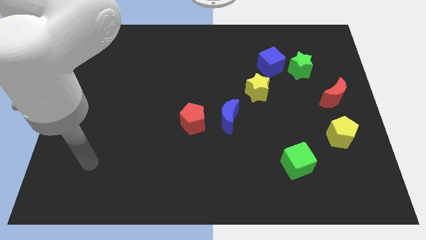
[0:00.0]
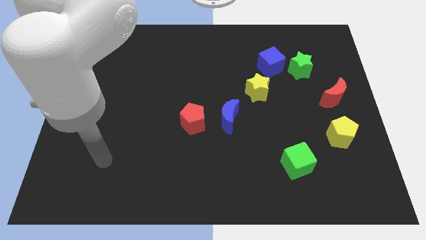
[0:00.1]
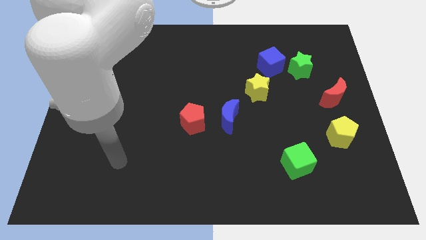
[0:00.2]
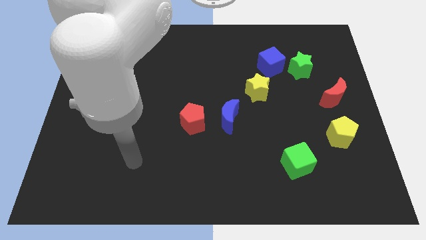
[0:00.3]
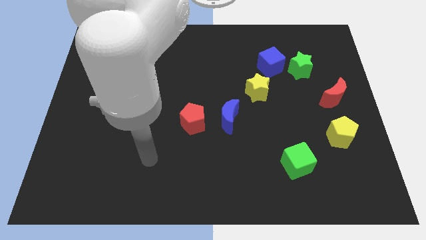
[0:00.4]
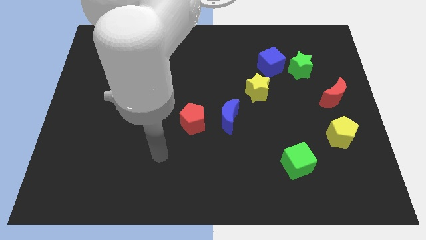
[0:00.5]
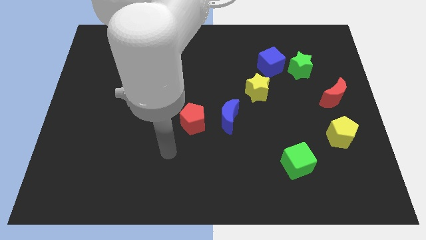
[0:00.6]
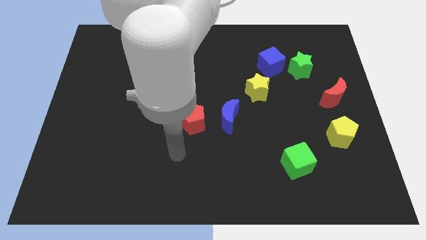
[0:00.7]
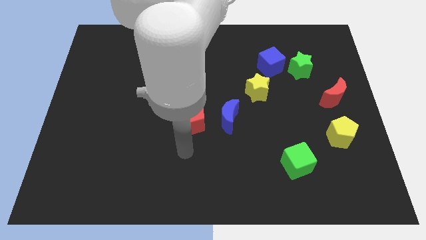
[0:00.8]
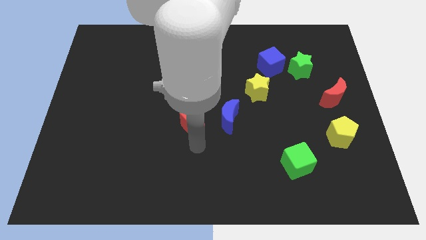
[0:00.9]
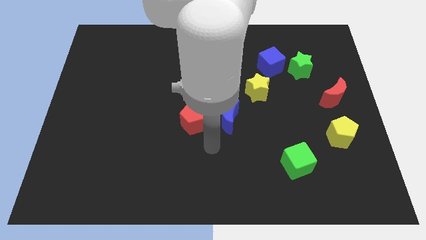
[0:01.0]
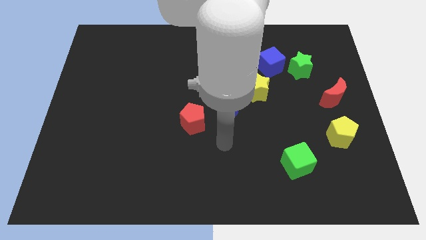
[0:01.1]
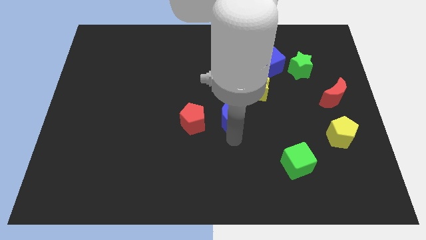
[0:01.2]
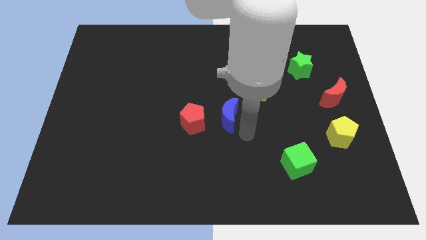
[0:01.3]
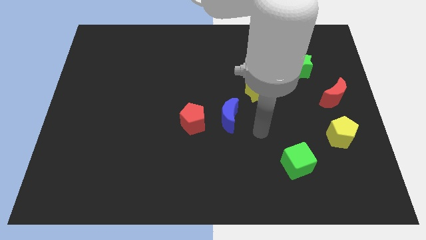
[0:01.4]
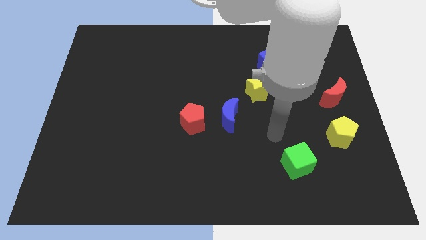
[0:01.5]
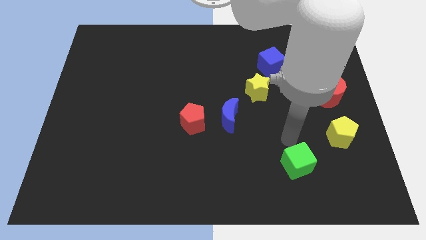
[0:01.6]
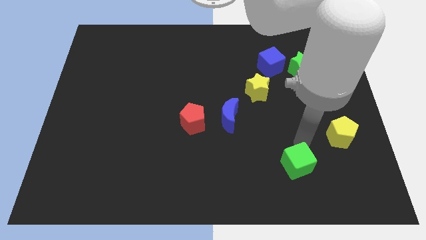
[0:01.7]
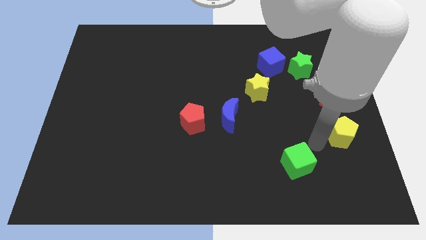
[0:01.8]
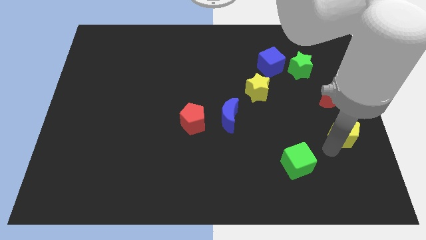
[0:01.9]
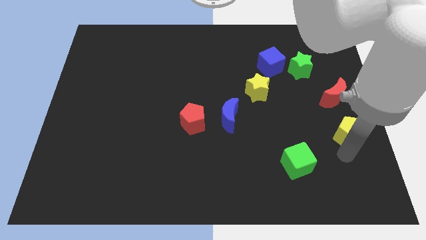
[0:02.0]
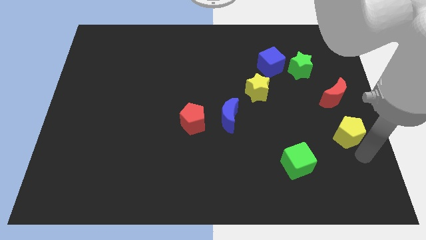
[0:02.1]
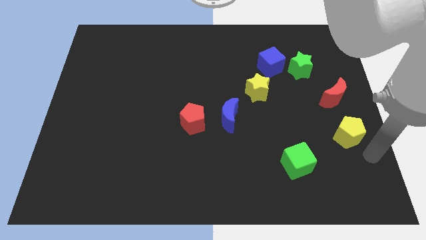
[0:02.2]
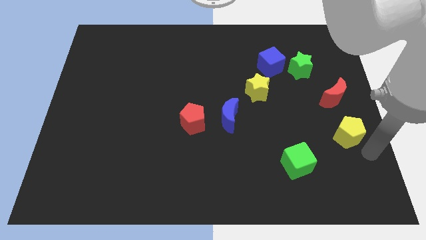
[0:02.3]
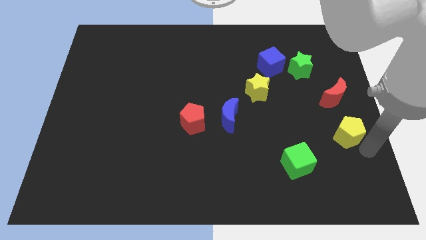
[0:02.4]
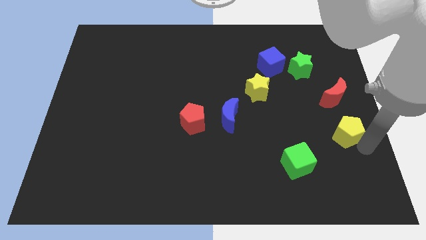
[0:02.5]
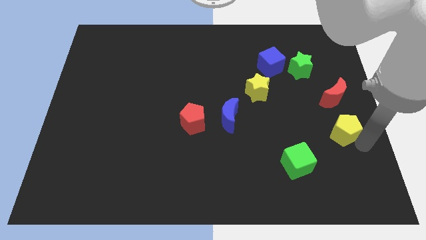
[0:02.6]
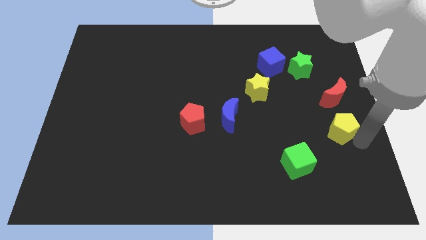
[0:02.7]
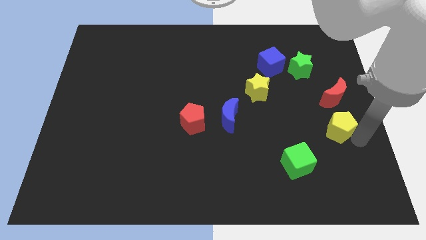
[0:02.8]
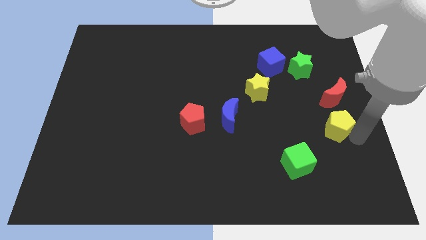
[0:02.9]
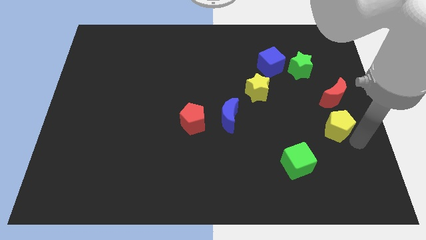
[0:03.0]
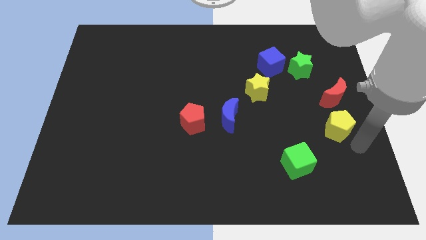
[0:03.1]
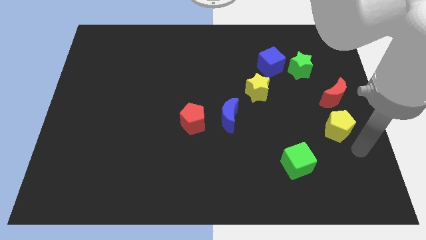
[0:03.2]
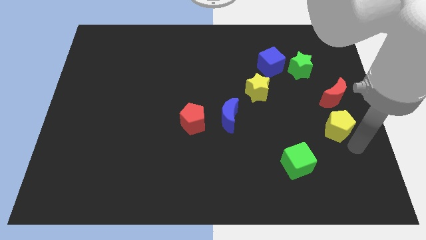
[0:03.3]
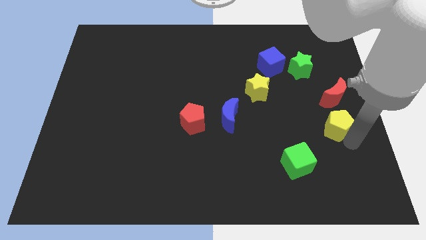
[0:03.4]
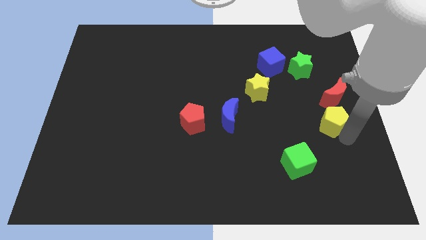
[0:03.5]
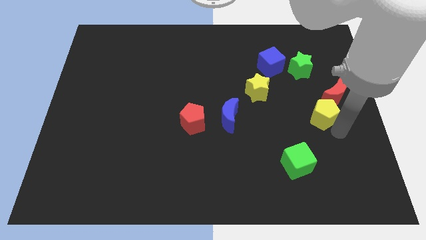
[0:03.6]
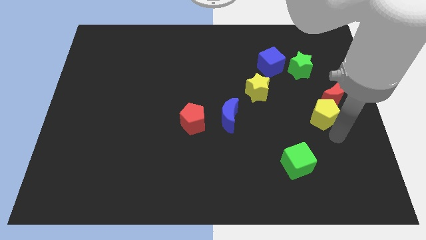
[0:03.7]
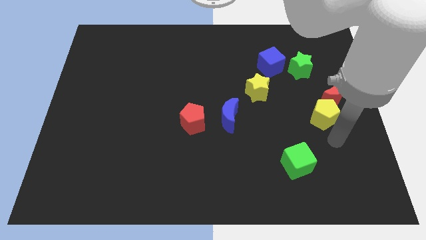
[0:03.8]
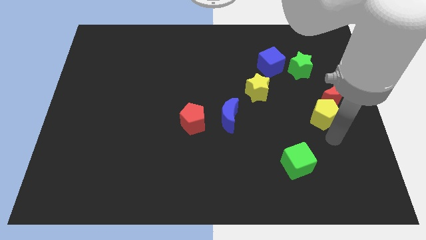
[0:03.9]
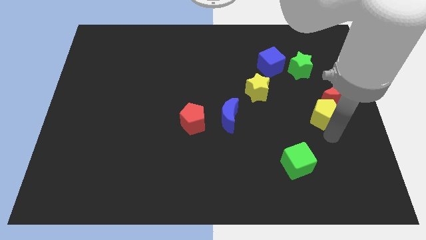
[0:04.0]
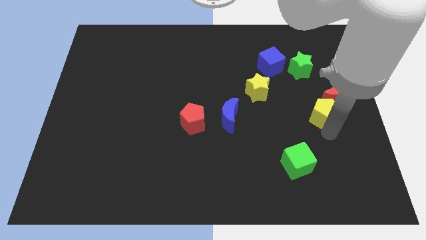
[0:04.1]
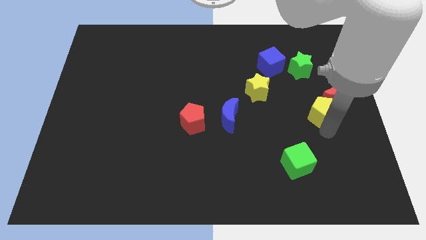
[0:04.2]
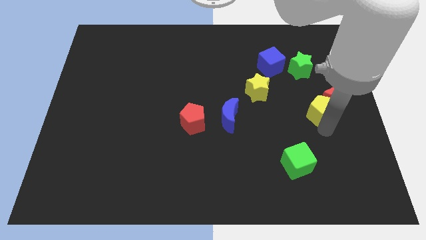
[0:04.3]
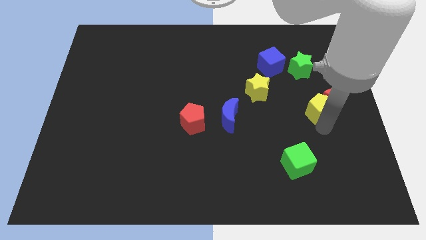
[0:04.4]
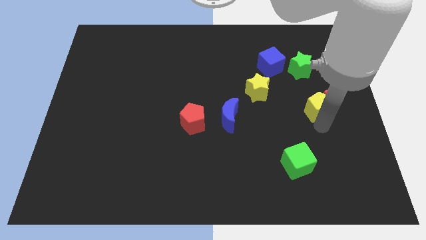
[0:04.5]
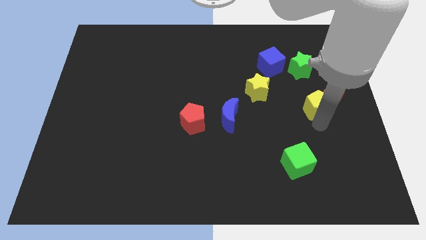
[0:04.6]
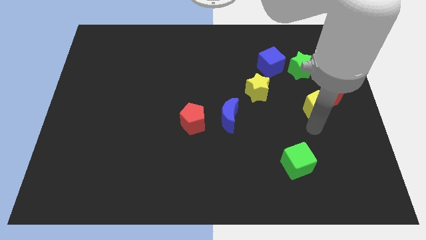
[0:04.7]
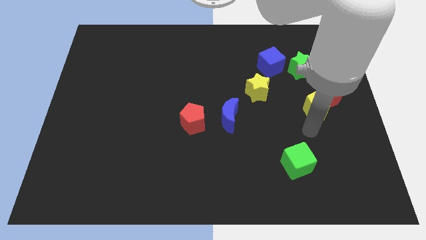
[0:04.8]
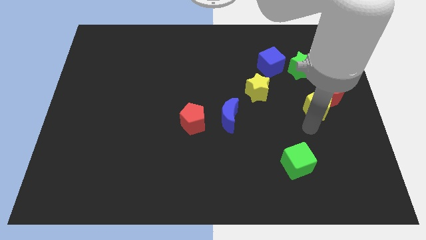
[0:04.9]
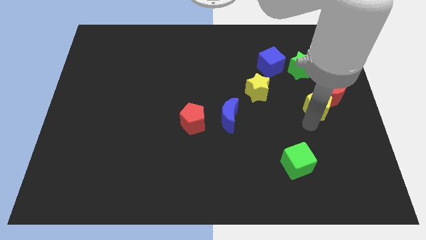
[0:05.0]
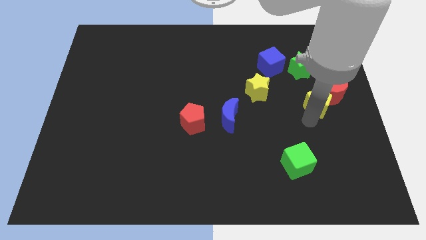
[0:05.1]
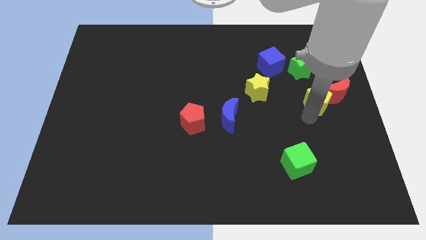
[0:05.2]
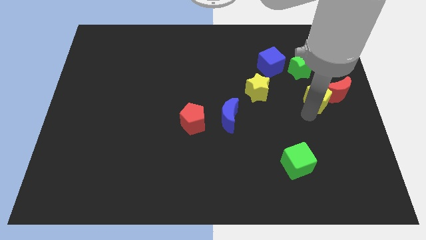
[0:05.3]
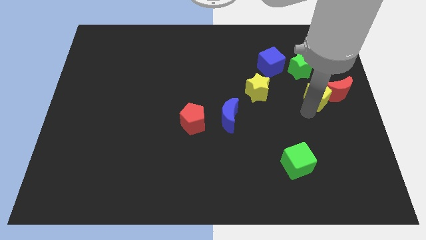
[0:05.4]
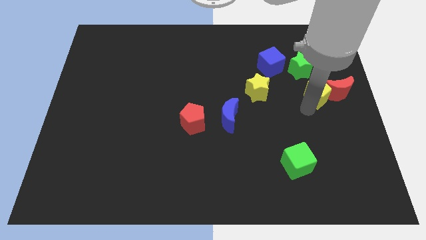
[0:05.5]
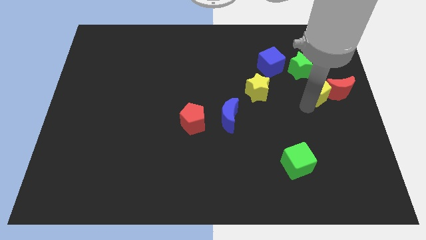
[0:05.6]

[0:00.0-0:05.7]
move the yellow pentagon diagonally down and to the right of the green star

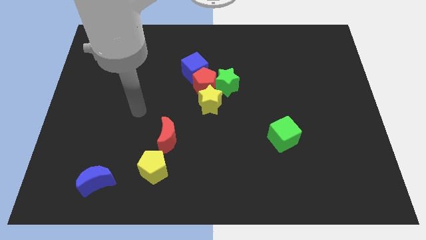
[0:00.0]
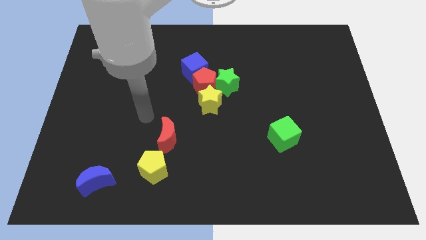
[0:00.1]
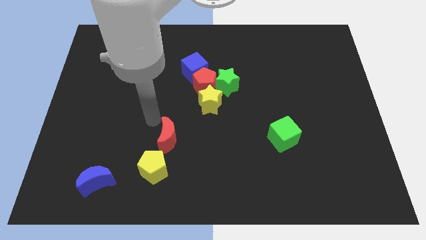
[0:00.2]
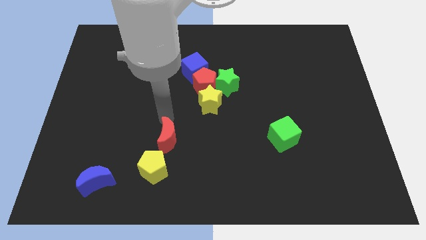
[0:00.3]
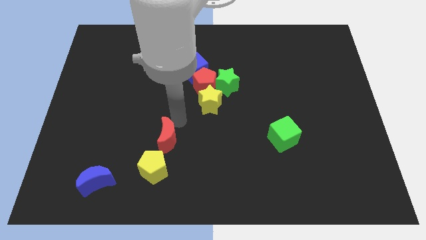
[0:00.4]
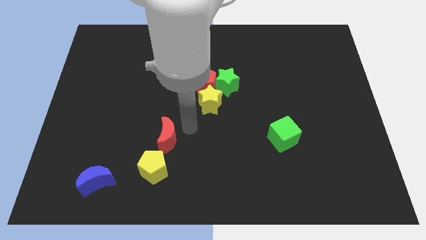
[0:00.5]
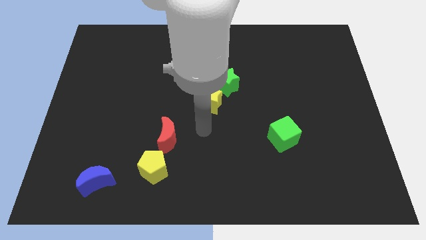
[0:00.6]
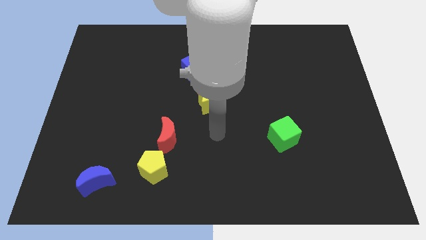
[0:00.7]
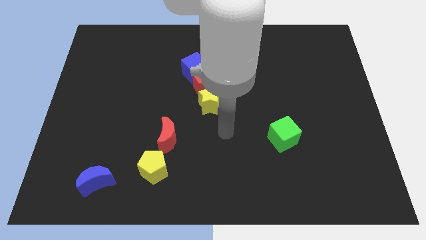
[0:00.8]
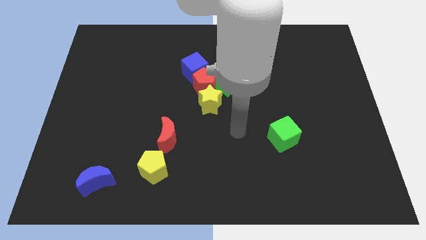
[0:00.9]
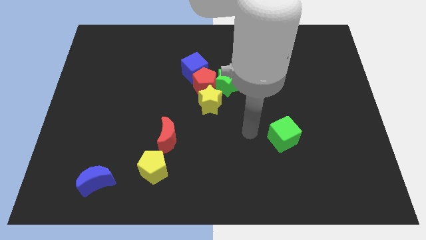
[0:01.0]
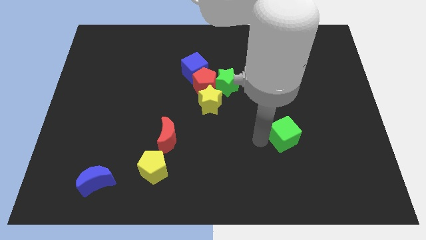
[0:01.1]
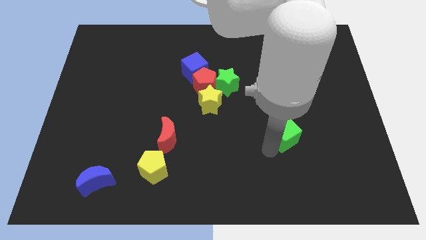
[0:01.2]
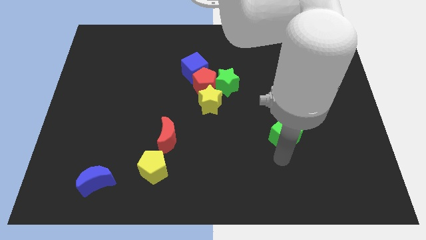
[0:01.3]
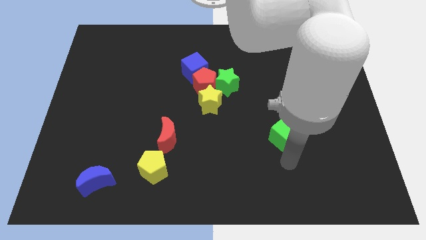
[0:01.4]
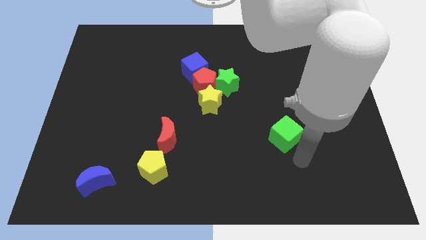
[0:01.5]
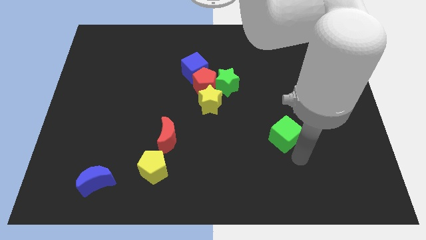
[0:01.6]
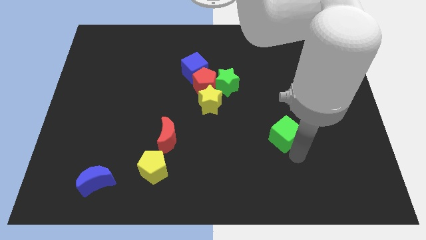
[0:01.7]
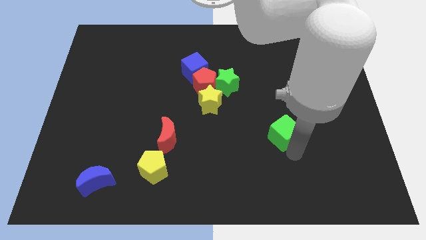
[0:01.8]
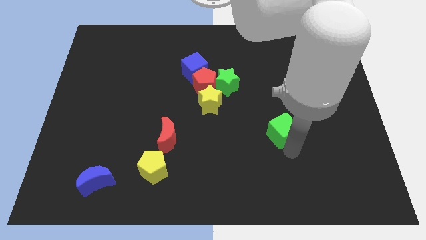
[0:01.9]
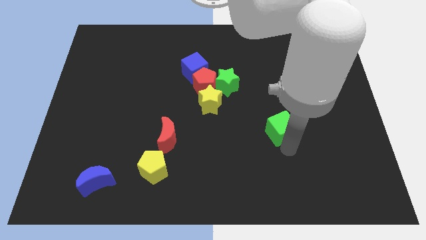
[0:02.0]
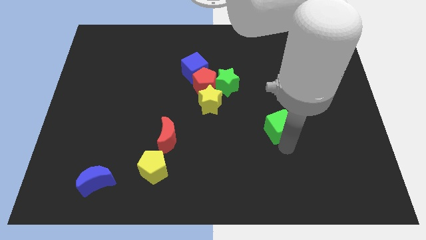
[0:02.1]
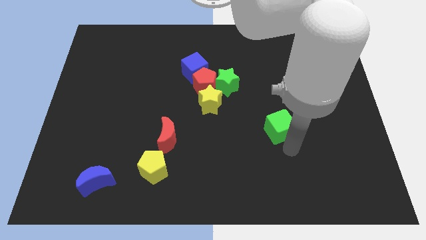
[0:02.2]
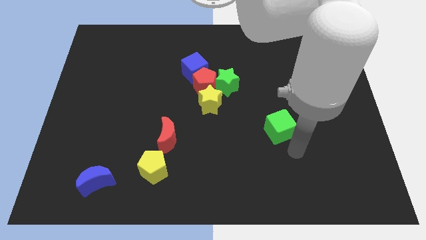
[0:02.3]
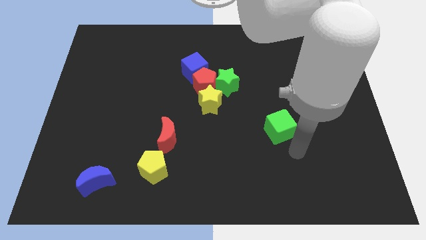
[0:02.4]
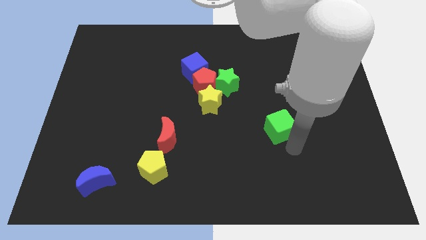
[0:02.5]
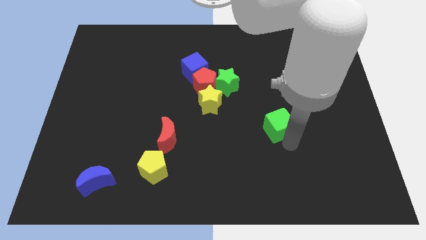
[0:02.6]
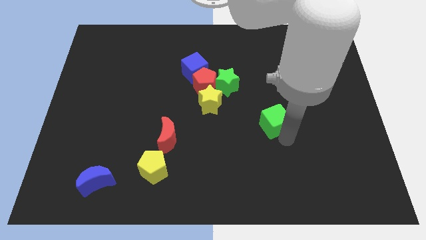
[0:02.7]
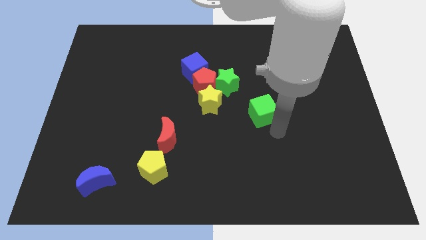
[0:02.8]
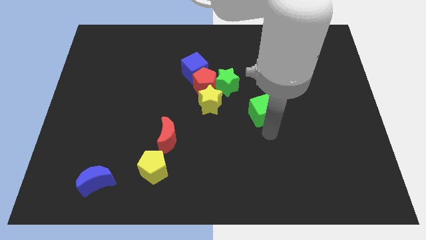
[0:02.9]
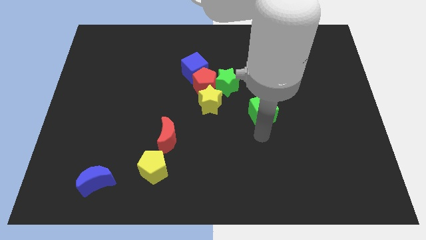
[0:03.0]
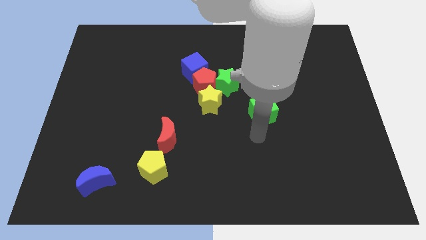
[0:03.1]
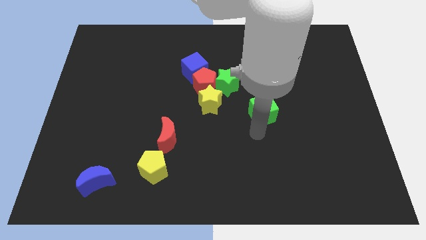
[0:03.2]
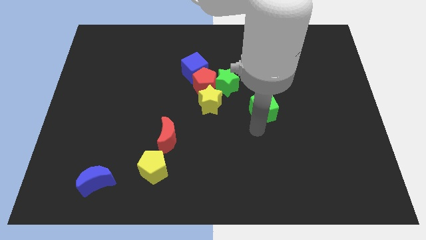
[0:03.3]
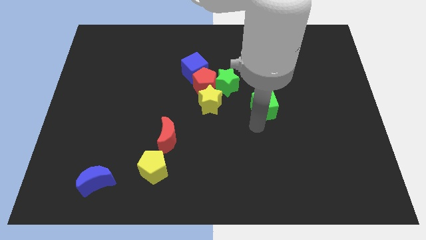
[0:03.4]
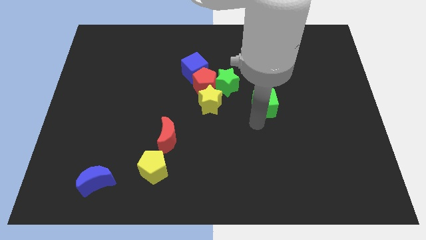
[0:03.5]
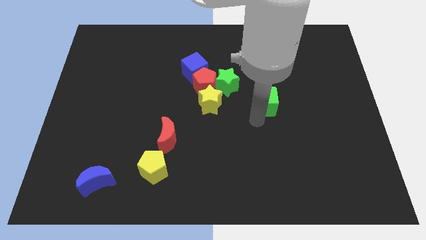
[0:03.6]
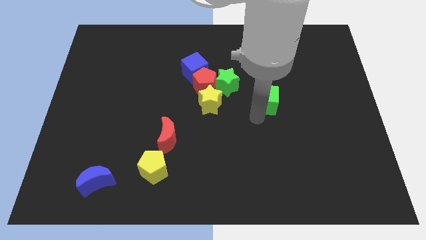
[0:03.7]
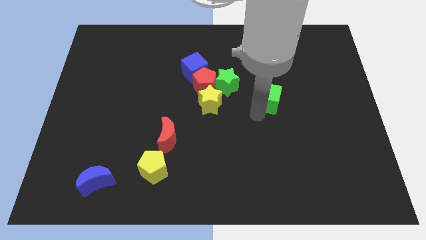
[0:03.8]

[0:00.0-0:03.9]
move the green cube just right of the green star
